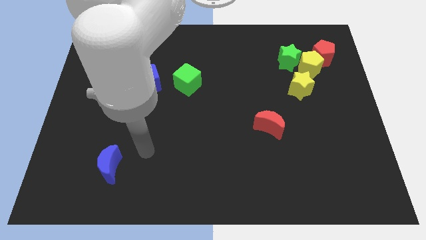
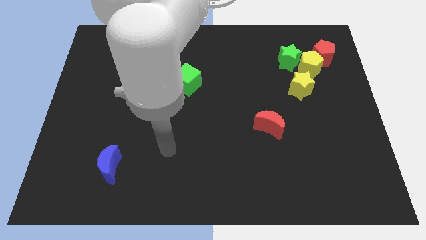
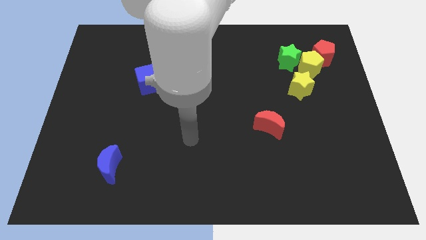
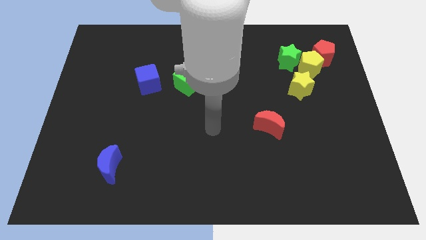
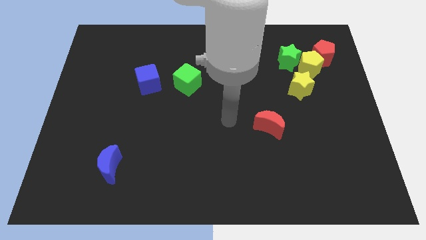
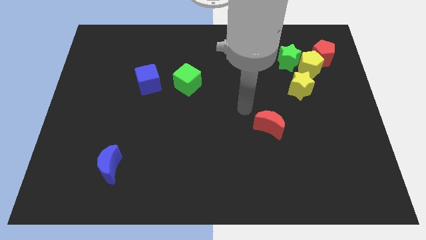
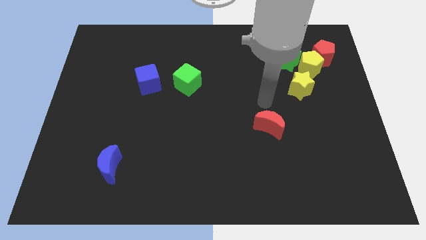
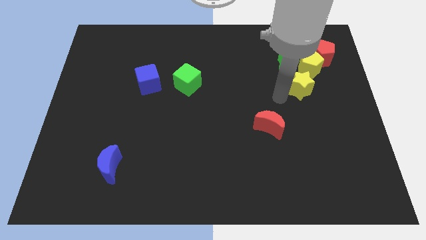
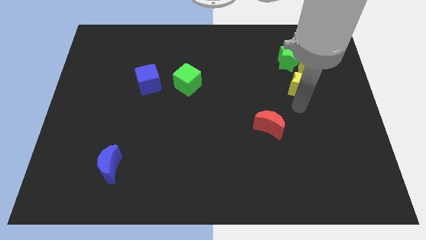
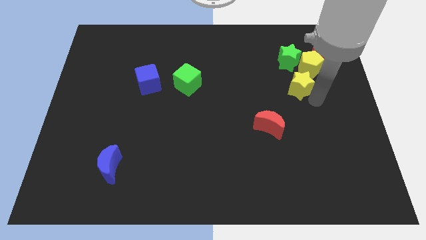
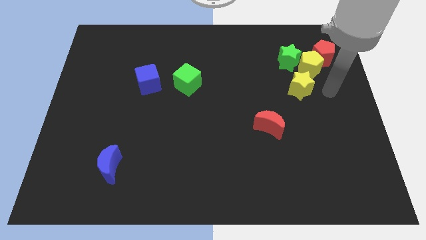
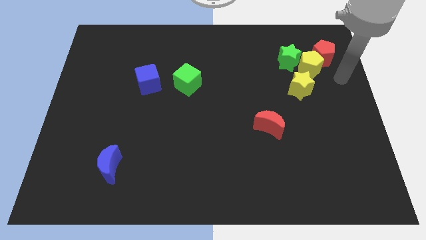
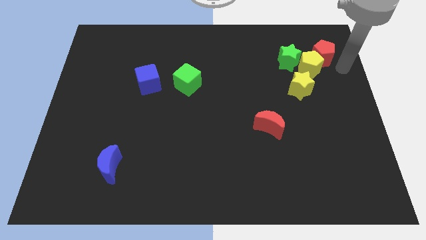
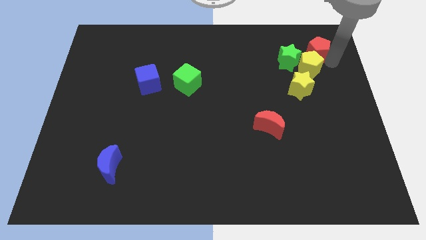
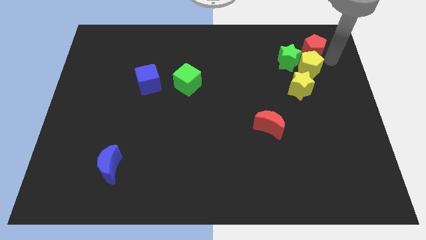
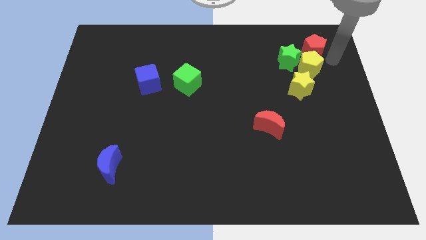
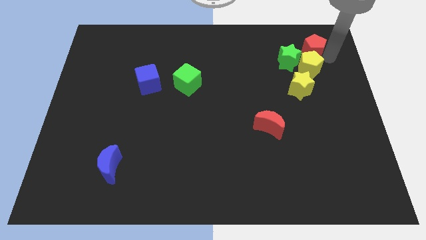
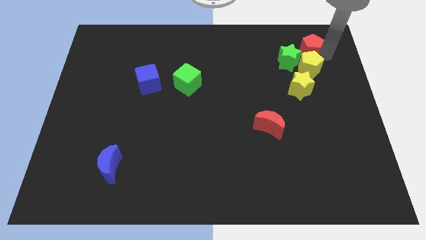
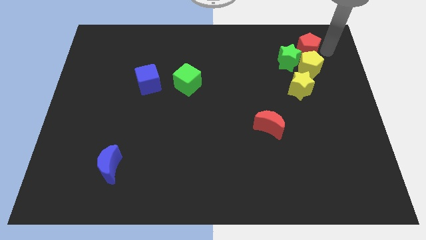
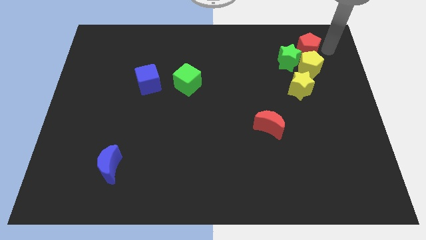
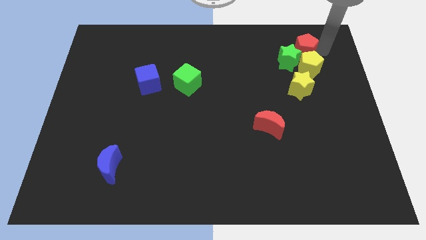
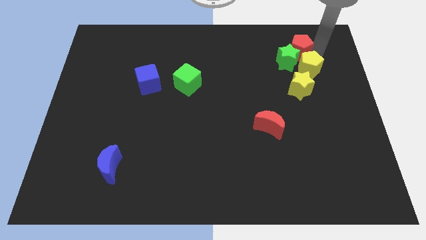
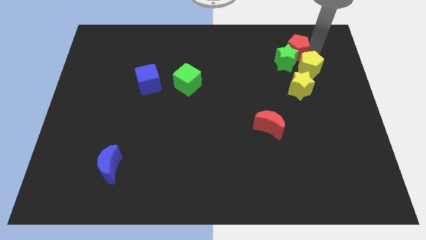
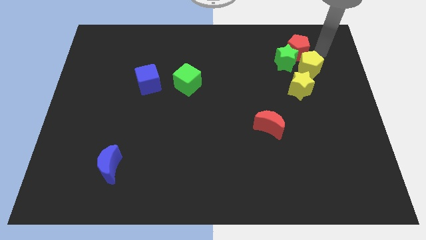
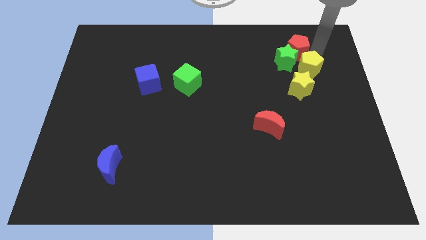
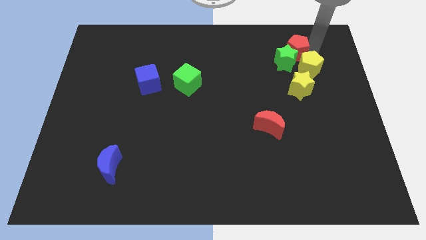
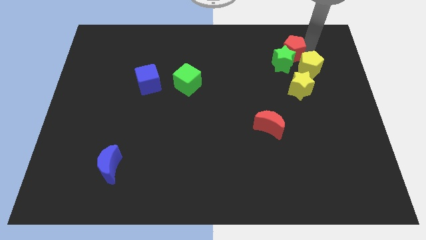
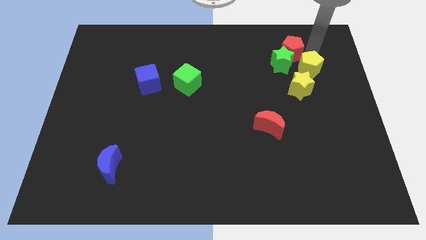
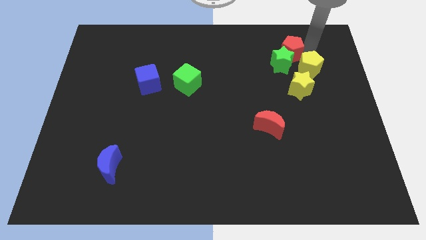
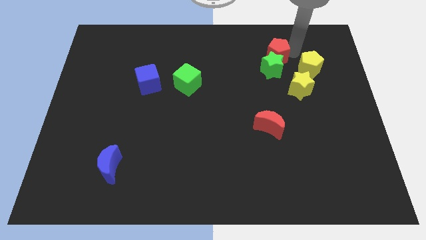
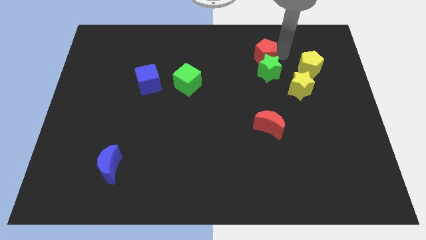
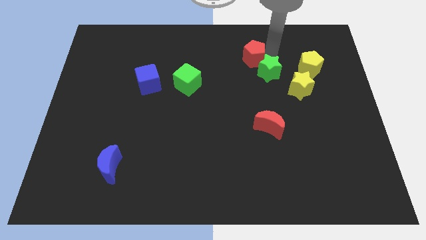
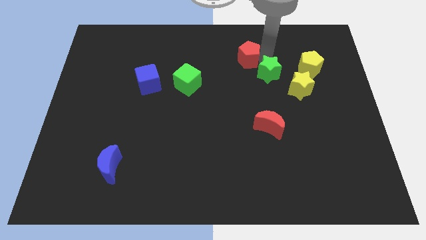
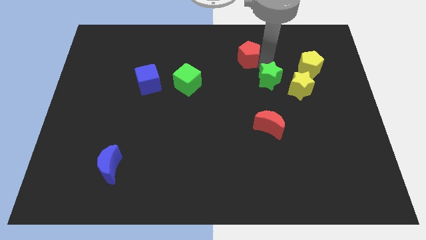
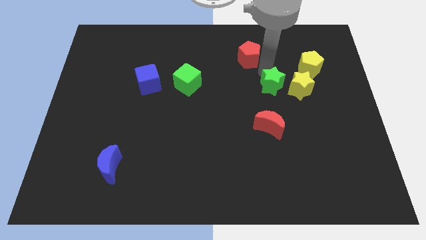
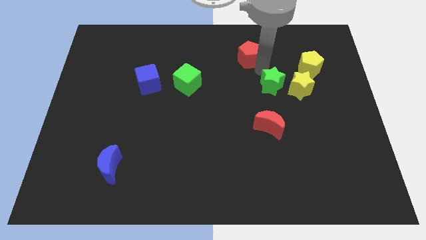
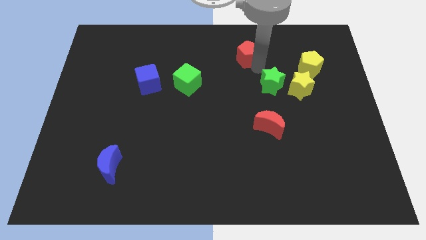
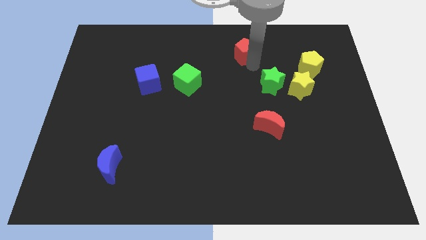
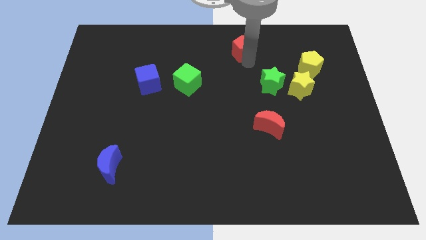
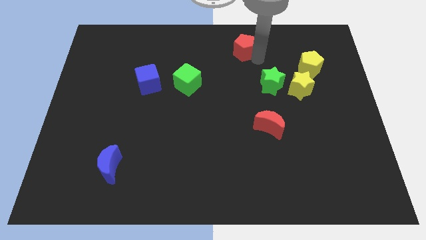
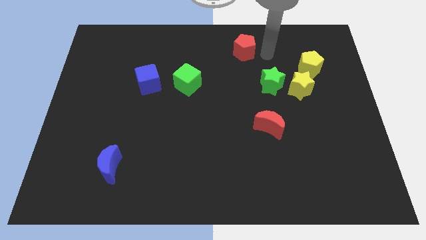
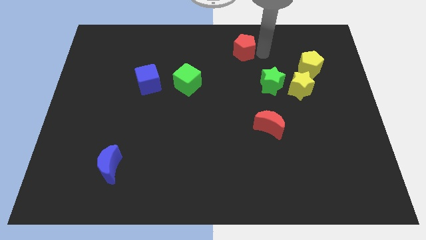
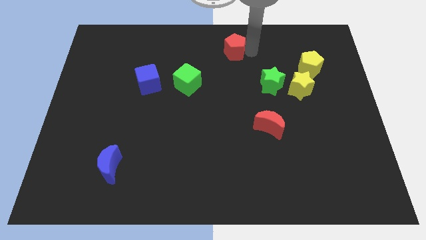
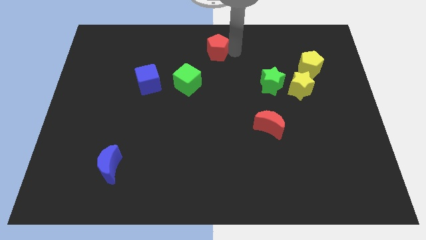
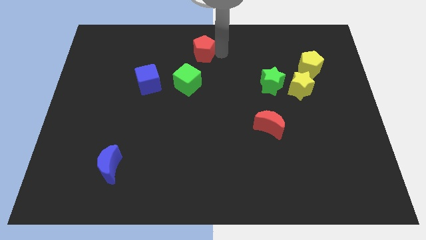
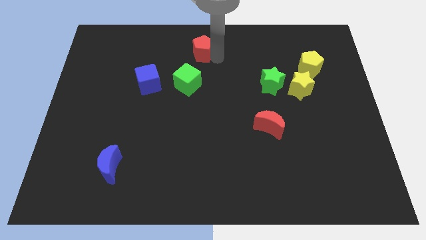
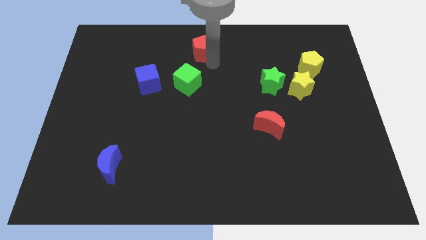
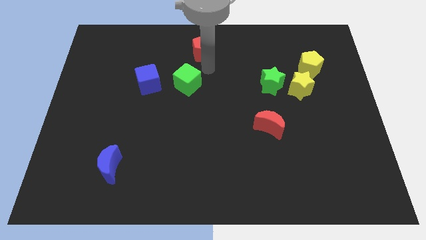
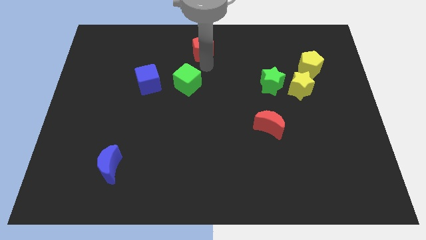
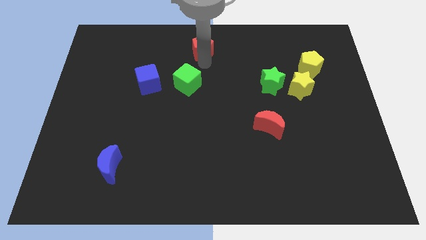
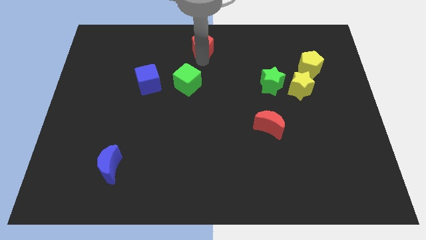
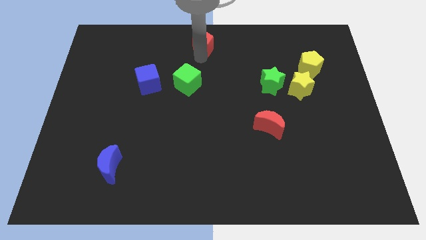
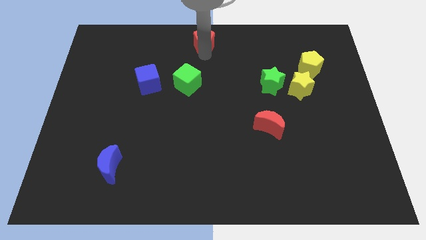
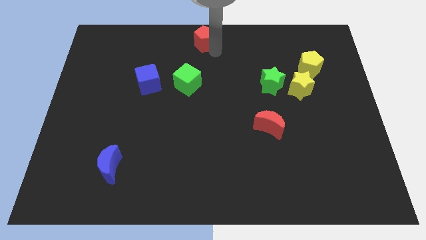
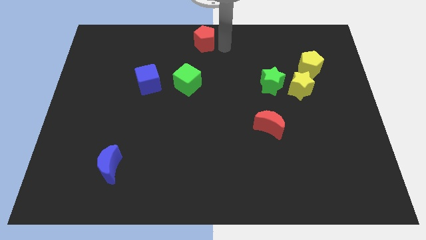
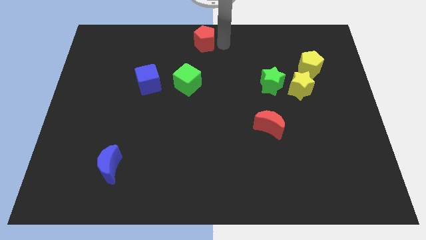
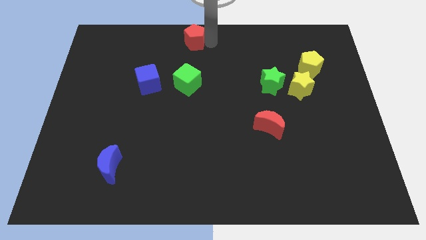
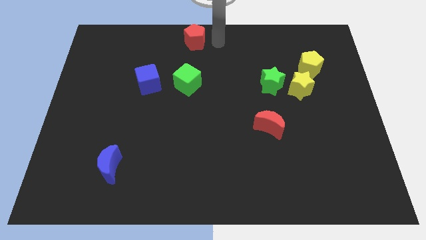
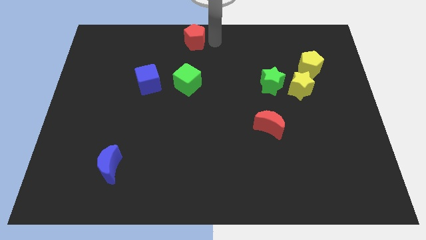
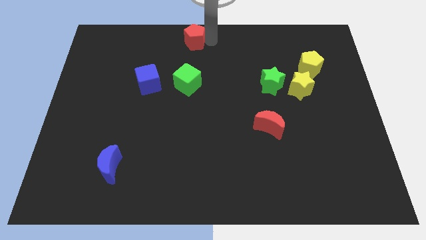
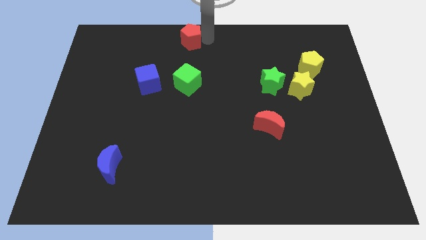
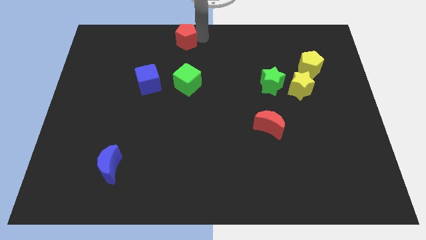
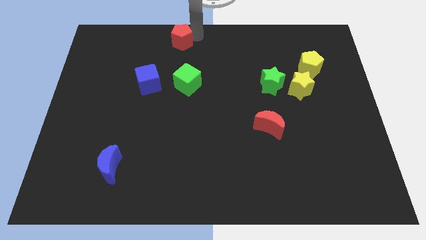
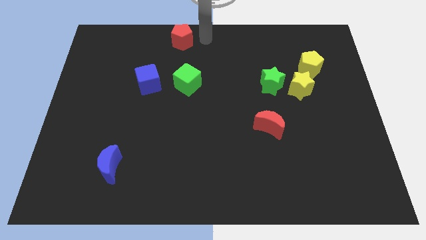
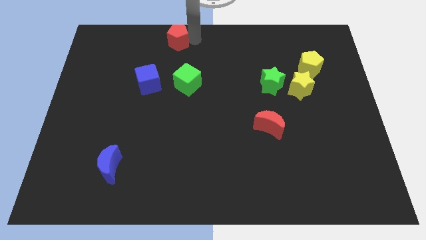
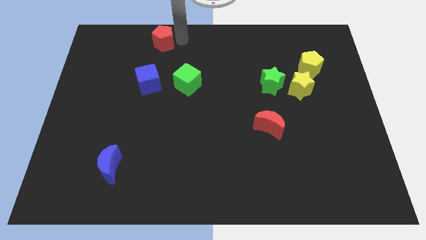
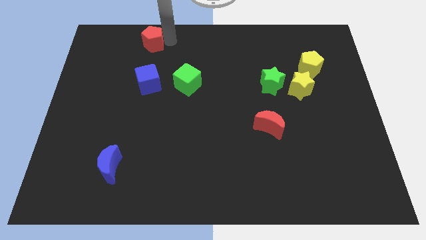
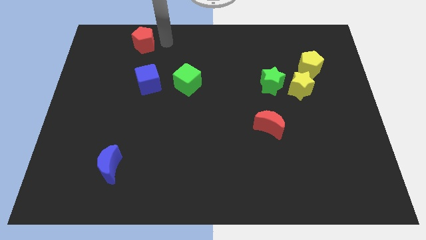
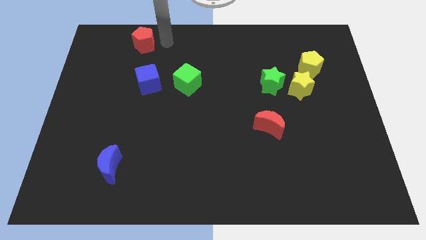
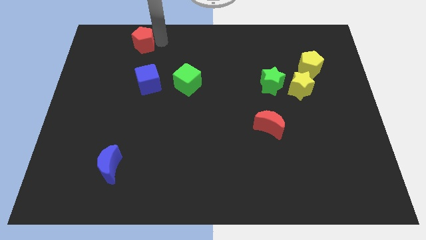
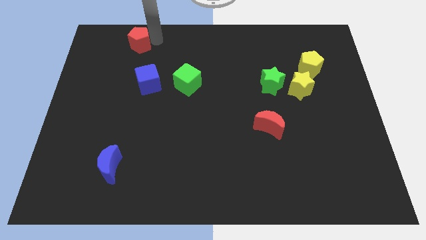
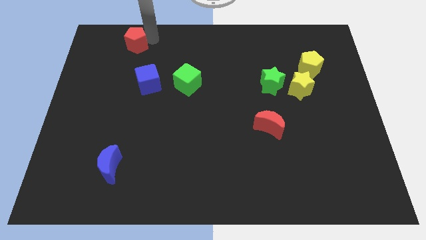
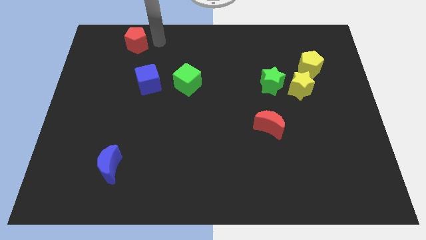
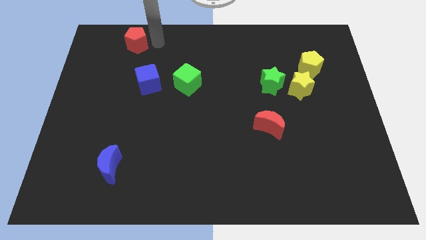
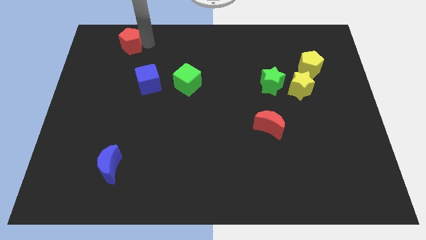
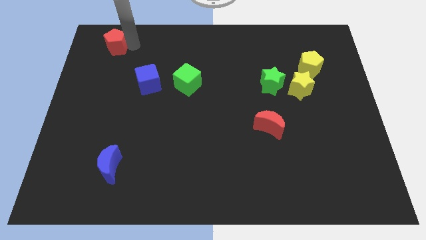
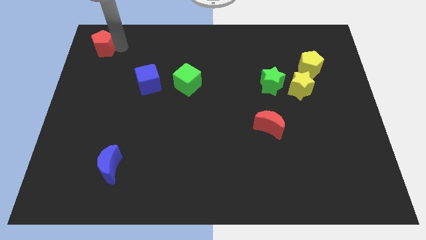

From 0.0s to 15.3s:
push the red pentagon to the top left
